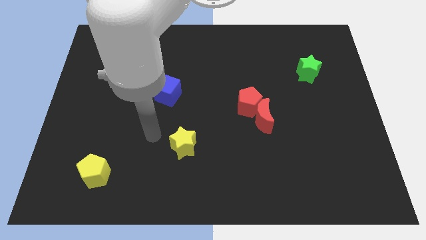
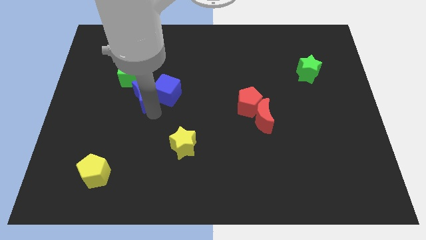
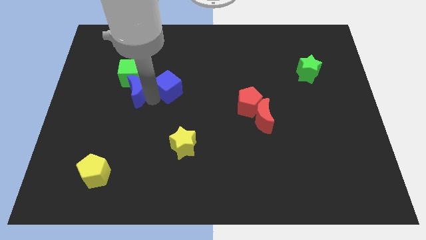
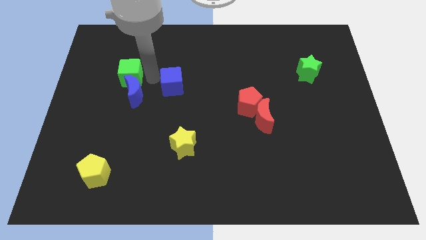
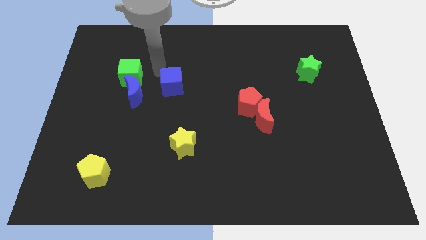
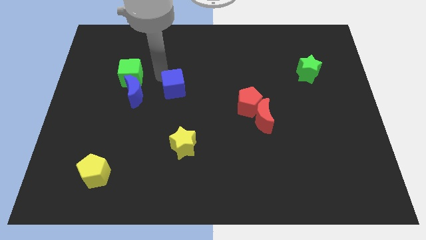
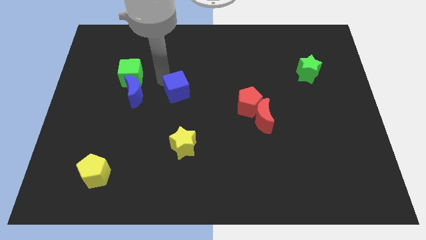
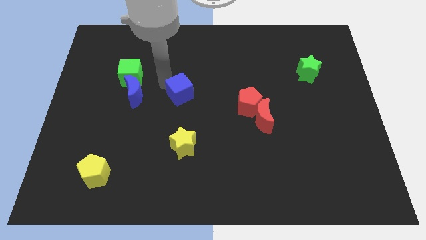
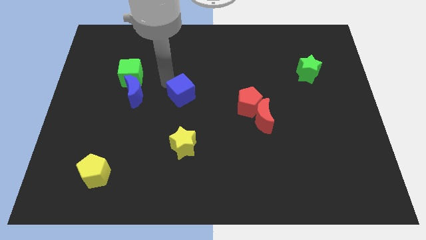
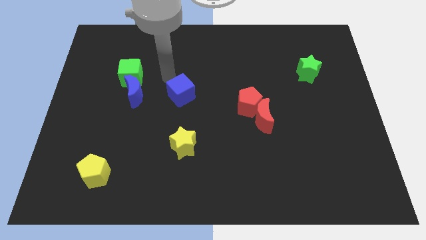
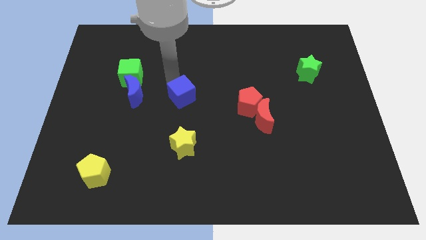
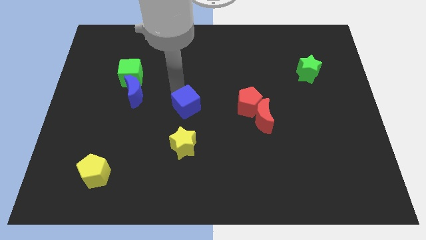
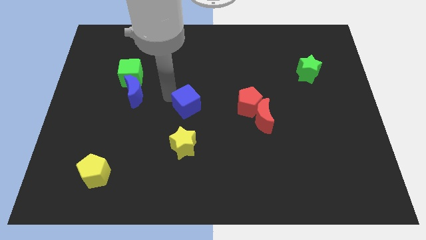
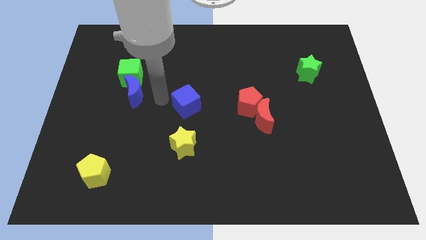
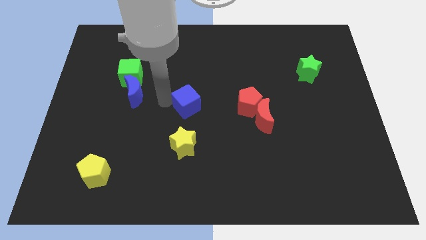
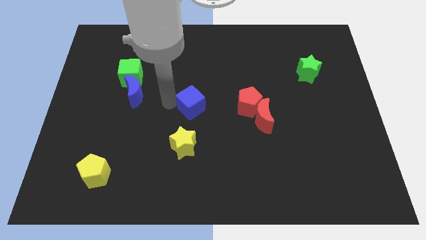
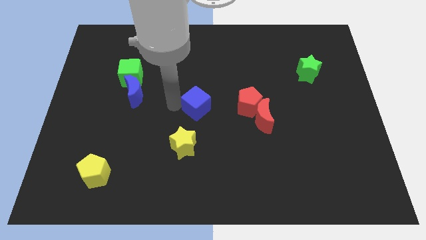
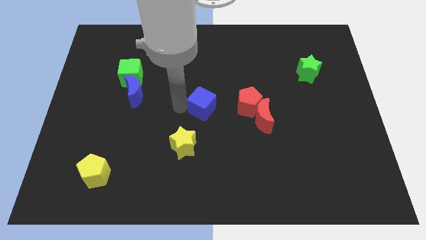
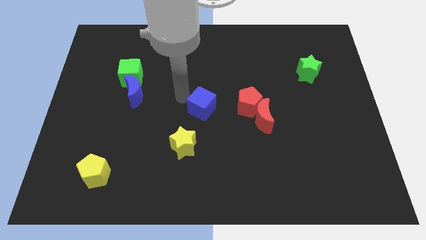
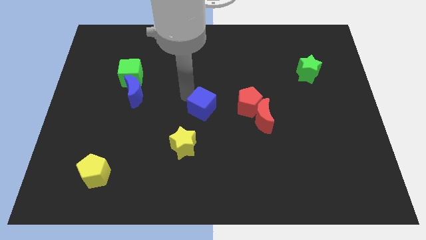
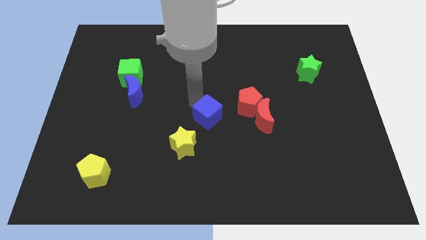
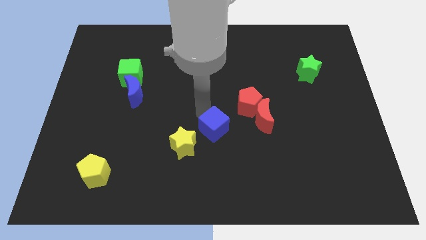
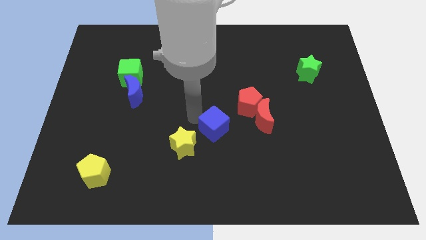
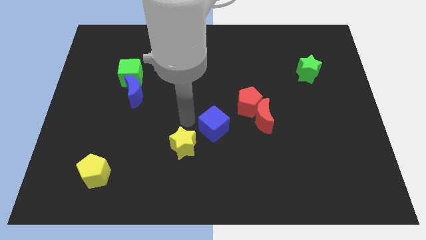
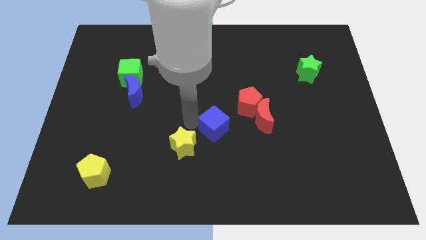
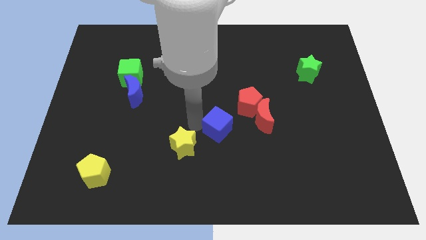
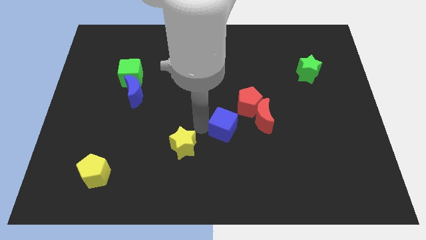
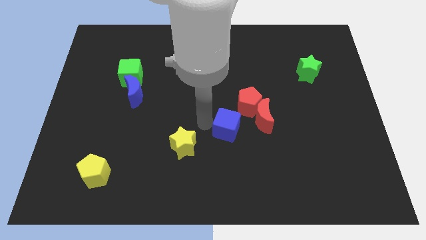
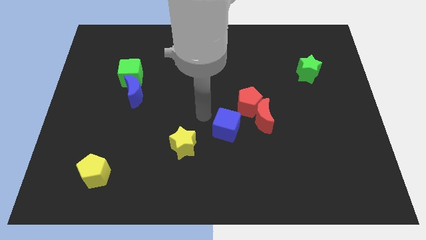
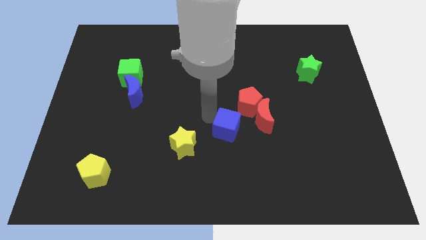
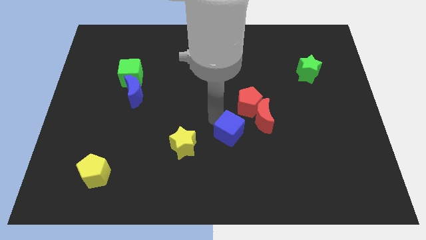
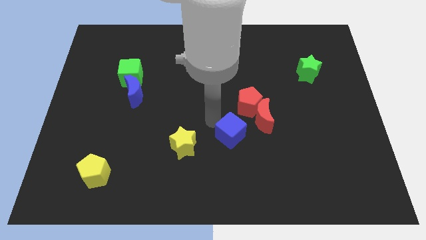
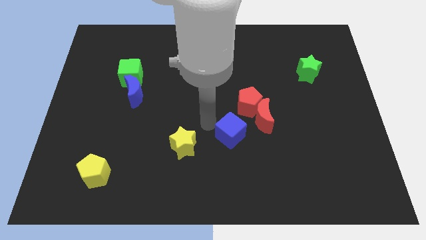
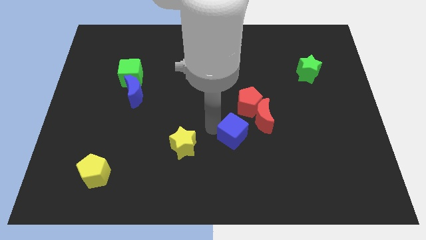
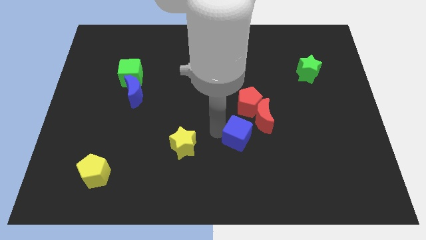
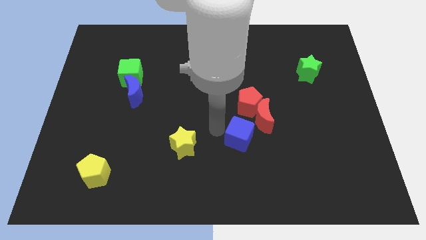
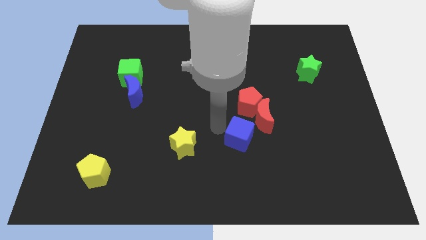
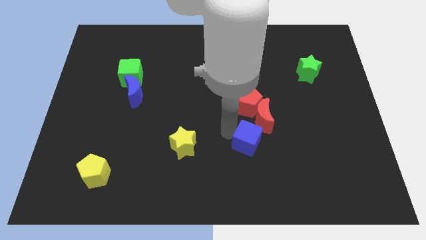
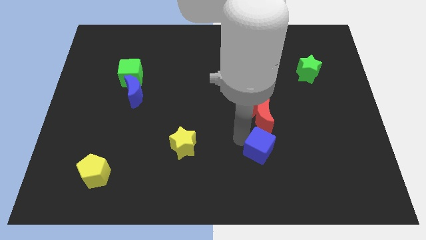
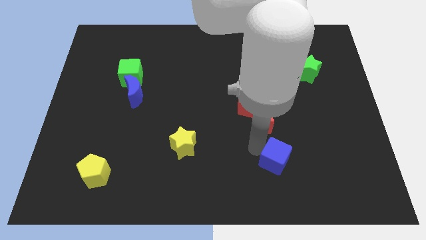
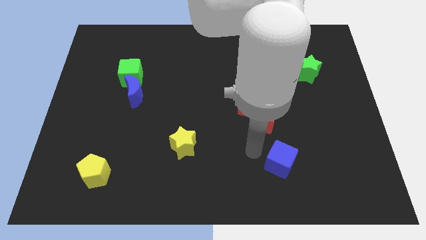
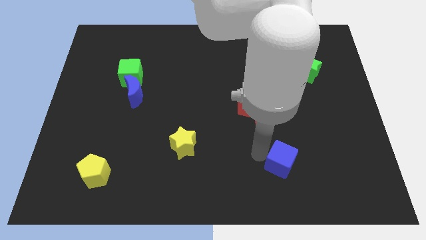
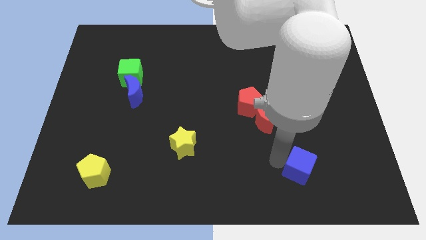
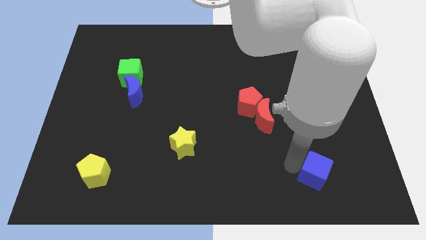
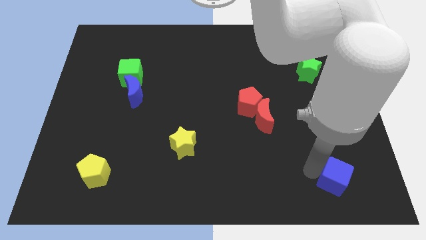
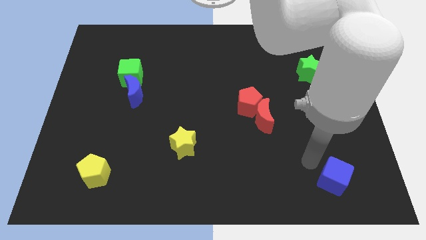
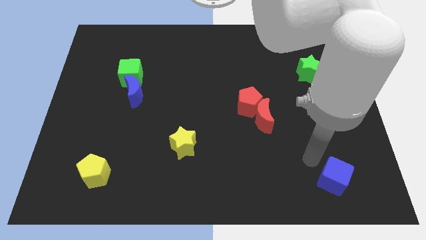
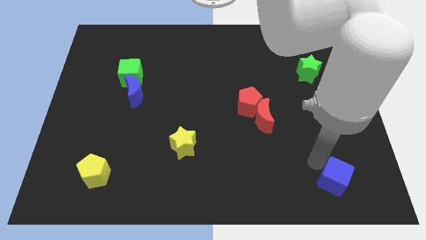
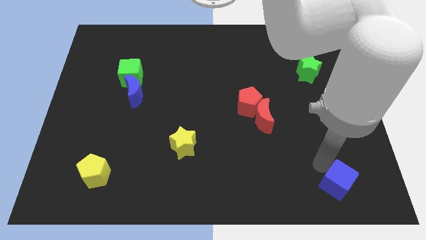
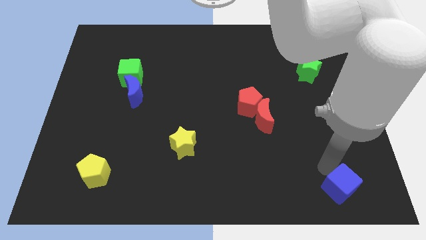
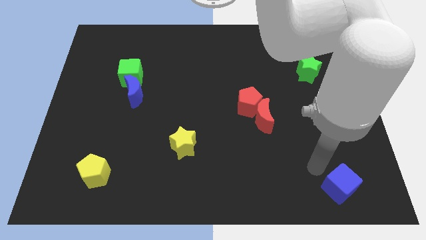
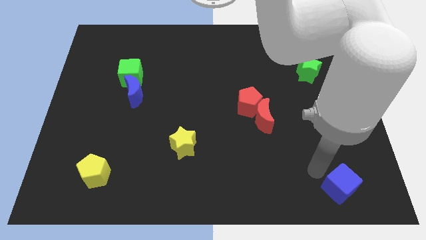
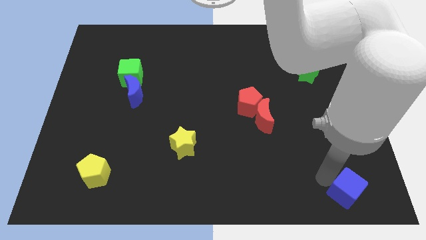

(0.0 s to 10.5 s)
put the blue cube to the bottom right of the board
